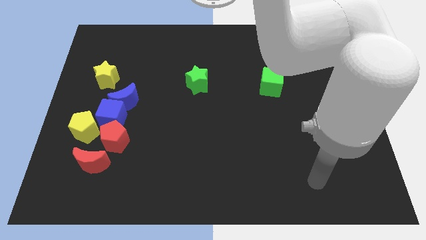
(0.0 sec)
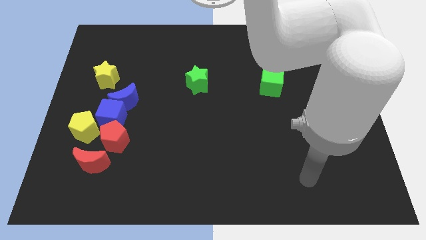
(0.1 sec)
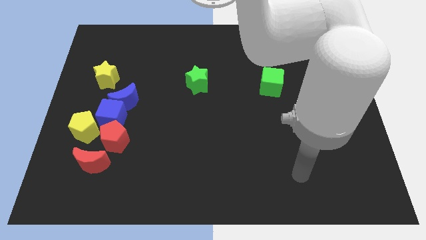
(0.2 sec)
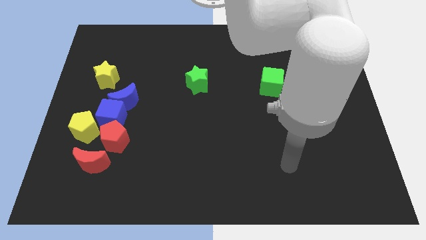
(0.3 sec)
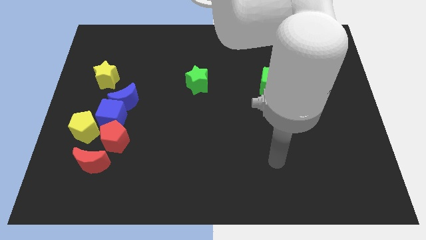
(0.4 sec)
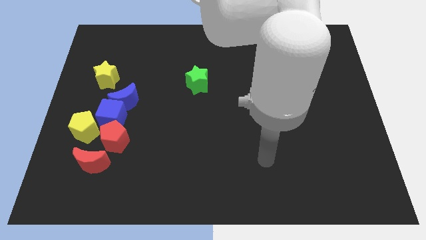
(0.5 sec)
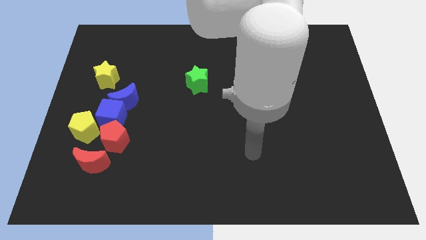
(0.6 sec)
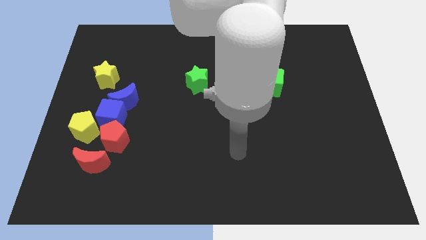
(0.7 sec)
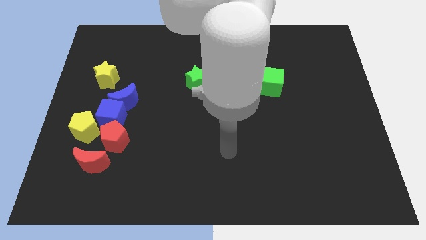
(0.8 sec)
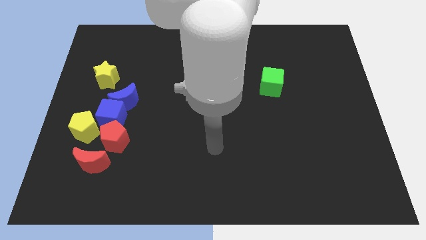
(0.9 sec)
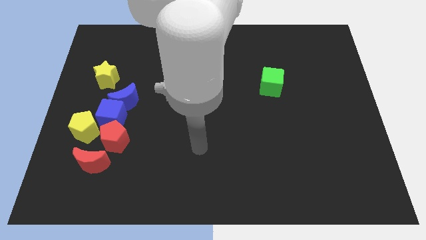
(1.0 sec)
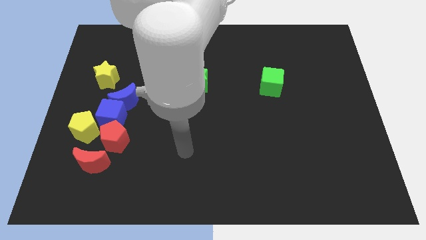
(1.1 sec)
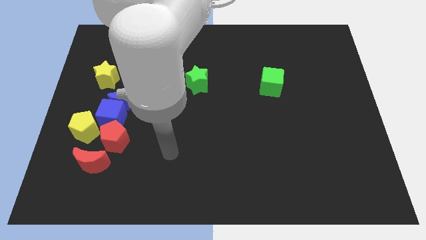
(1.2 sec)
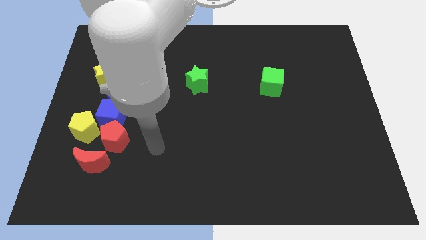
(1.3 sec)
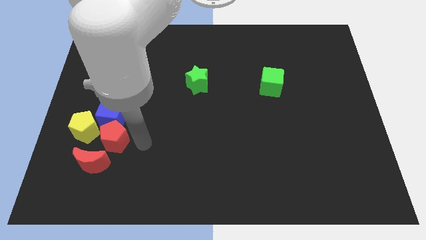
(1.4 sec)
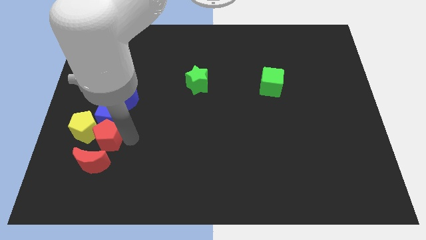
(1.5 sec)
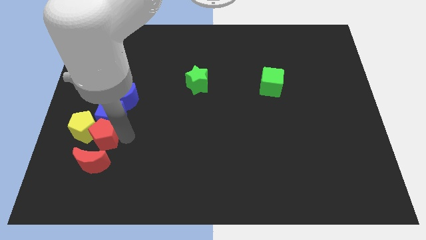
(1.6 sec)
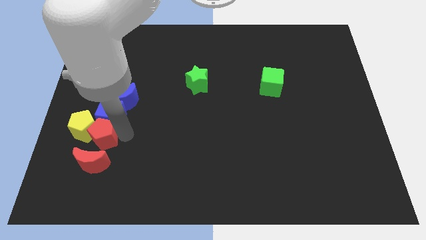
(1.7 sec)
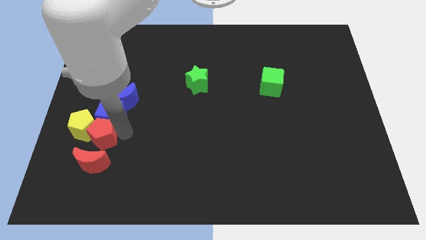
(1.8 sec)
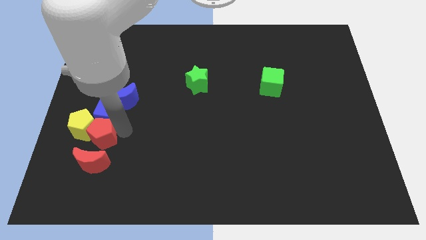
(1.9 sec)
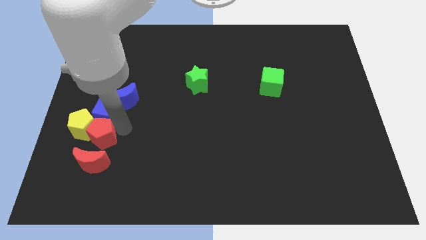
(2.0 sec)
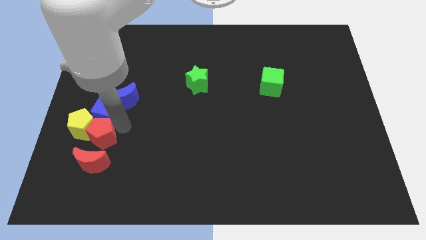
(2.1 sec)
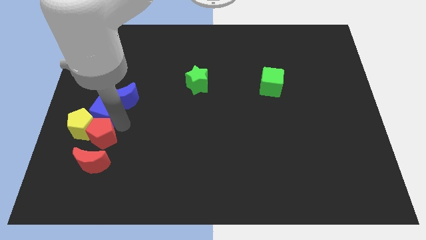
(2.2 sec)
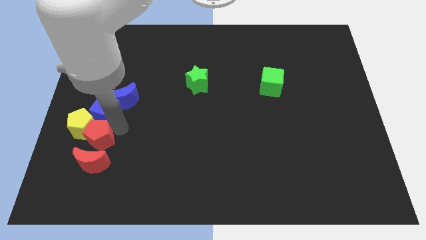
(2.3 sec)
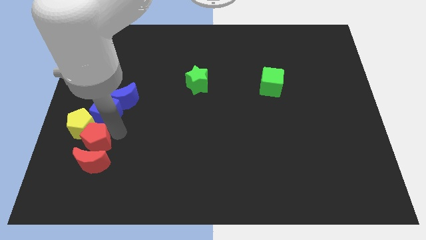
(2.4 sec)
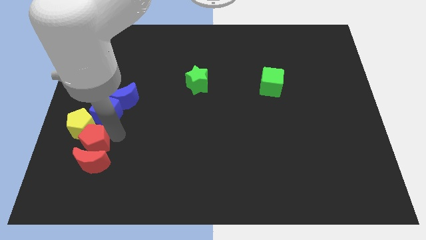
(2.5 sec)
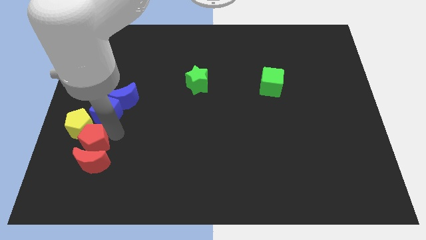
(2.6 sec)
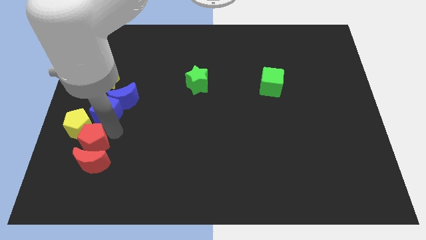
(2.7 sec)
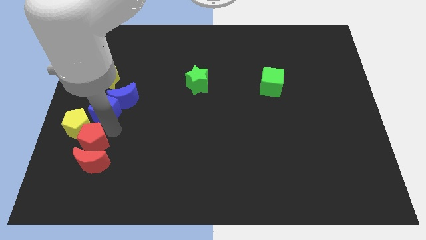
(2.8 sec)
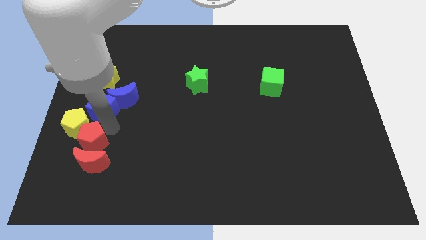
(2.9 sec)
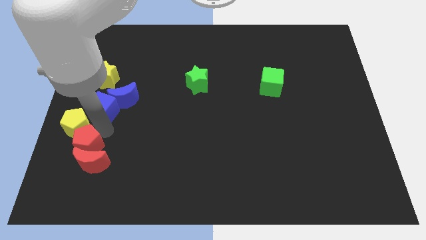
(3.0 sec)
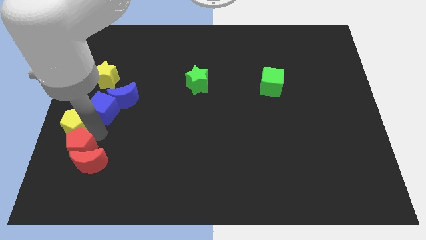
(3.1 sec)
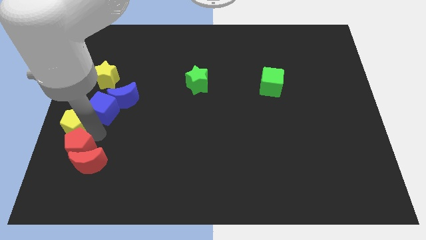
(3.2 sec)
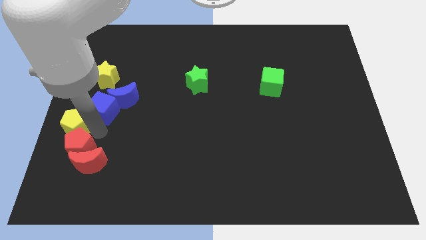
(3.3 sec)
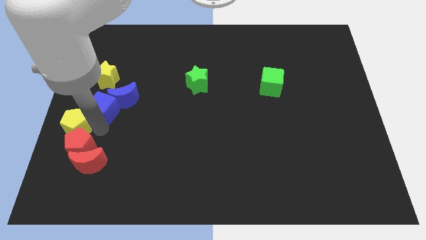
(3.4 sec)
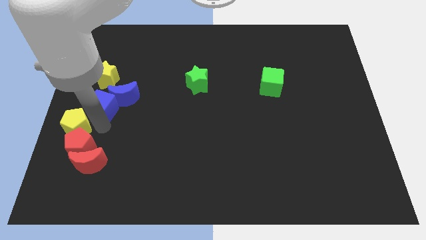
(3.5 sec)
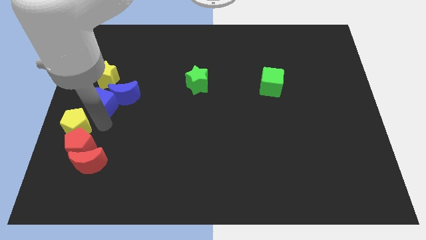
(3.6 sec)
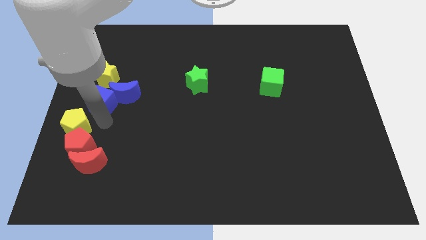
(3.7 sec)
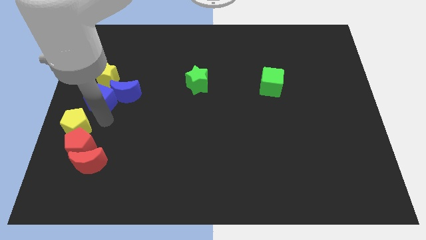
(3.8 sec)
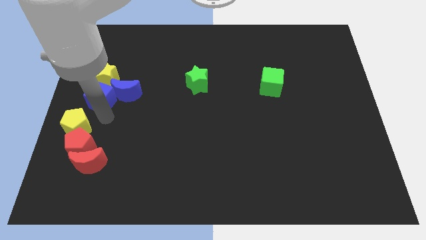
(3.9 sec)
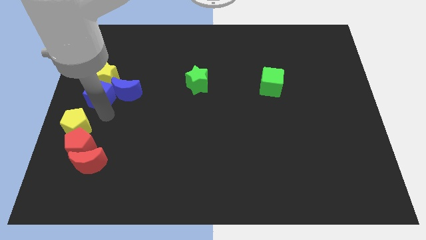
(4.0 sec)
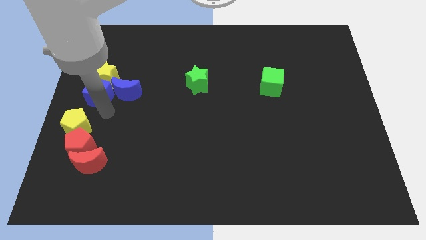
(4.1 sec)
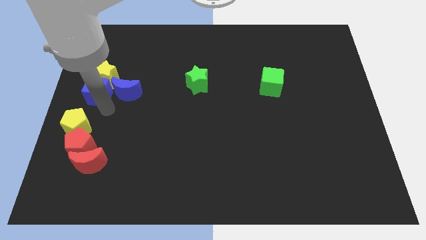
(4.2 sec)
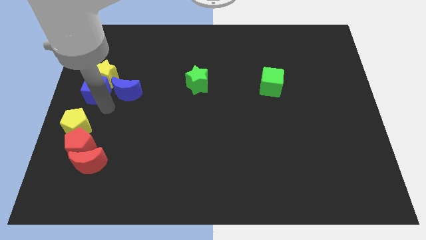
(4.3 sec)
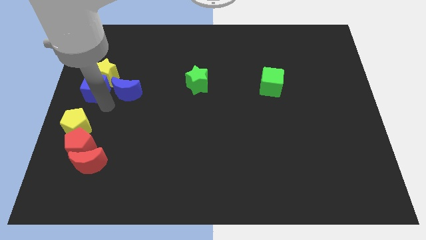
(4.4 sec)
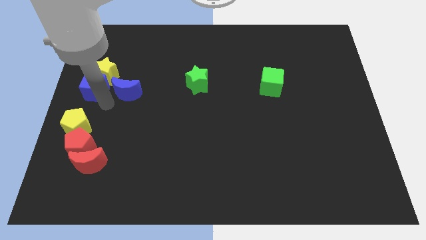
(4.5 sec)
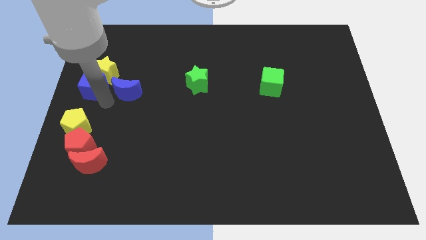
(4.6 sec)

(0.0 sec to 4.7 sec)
move the blue cube away from the blue moon, red pentagon, and yellow pentagon

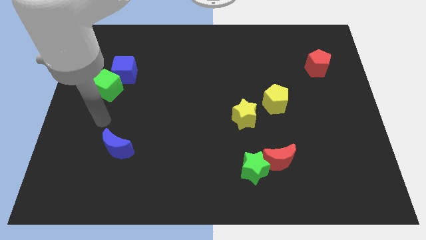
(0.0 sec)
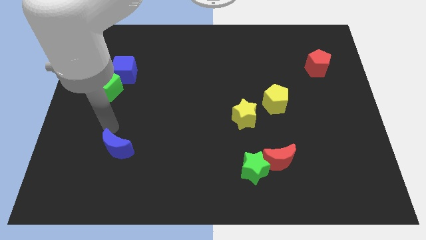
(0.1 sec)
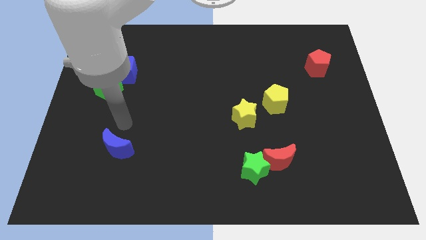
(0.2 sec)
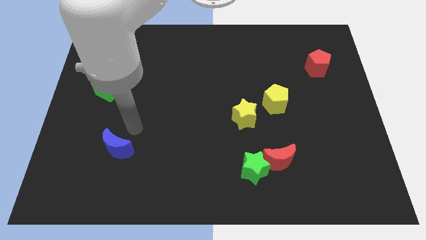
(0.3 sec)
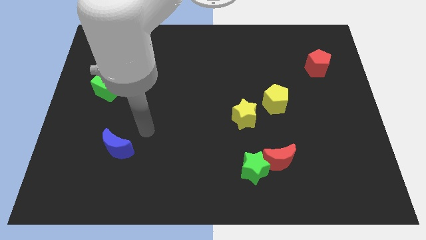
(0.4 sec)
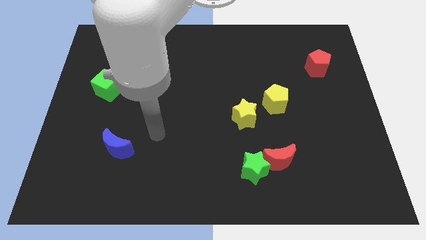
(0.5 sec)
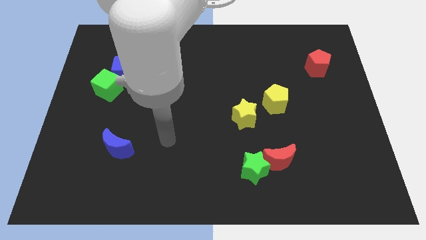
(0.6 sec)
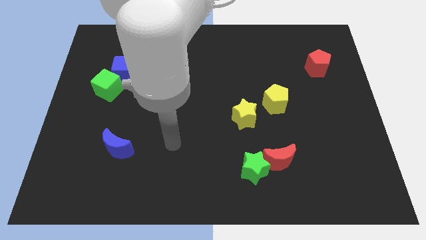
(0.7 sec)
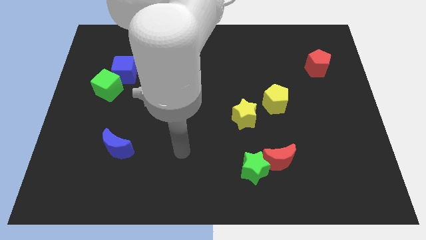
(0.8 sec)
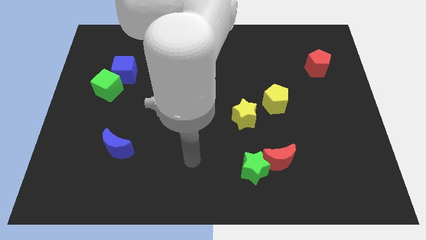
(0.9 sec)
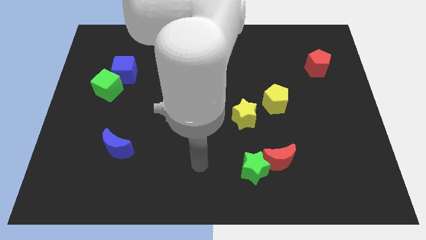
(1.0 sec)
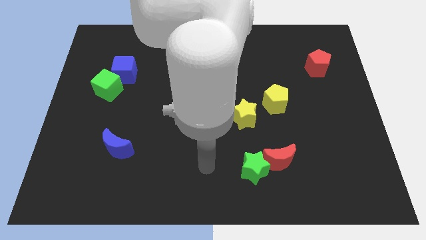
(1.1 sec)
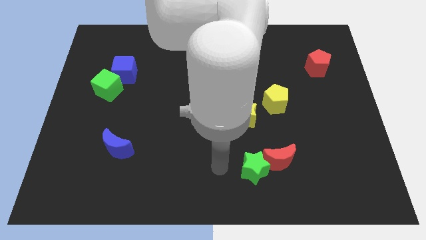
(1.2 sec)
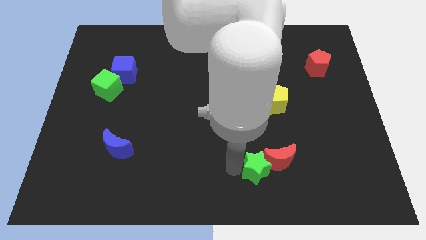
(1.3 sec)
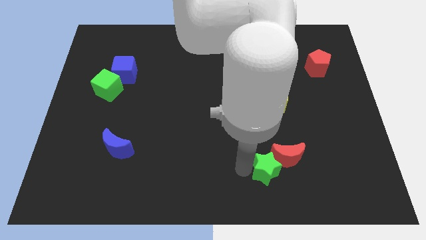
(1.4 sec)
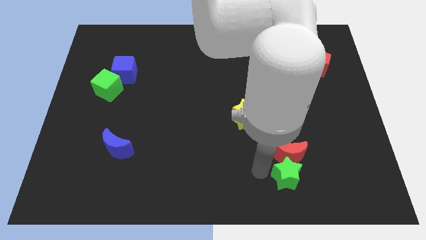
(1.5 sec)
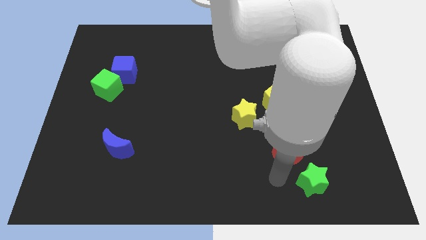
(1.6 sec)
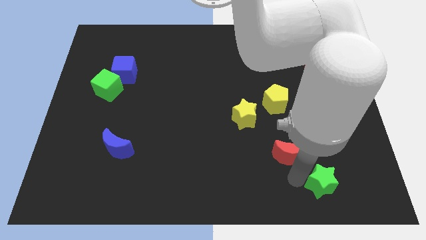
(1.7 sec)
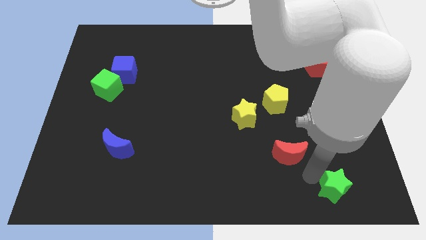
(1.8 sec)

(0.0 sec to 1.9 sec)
move the red moon away from the green star

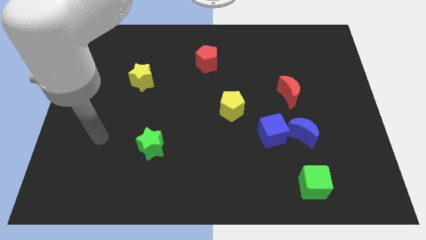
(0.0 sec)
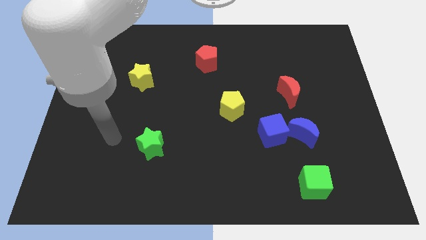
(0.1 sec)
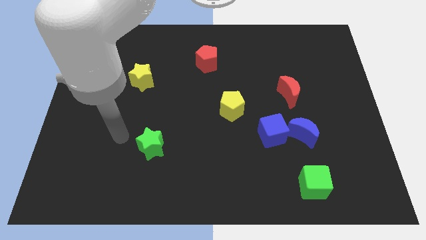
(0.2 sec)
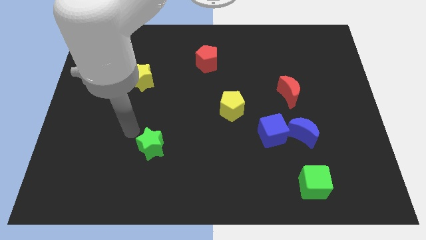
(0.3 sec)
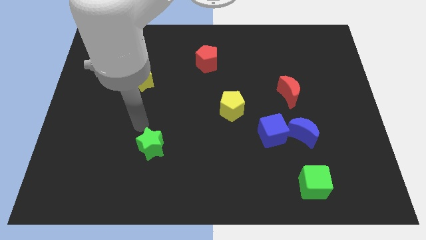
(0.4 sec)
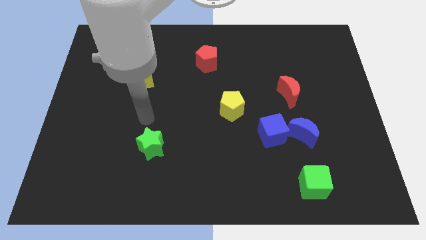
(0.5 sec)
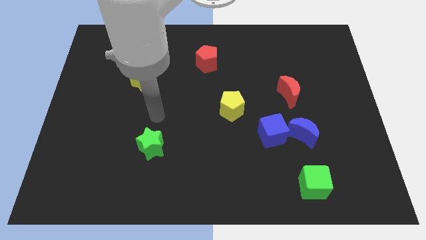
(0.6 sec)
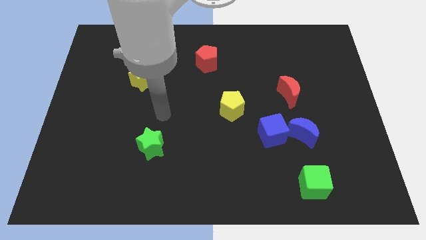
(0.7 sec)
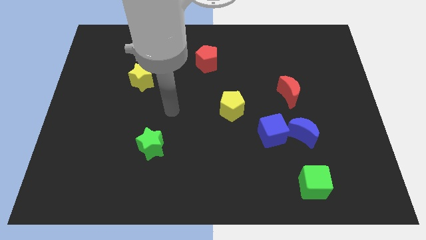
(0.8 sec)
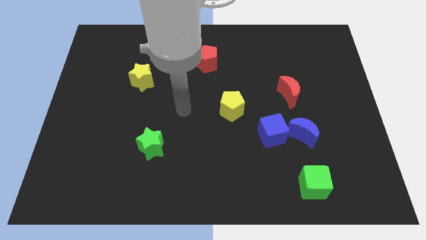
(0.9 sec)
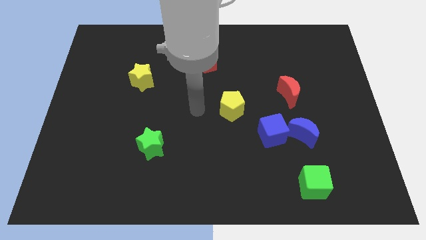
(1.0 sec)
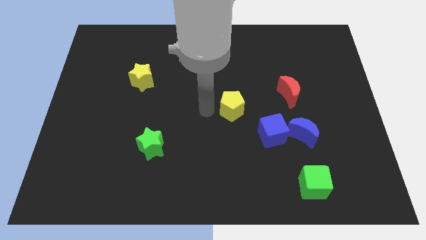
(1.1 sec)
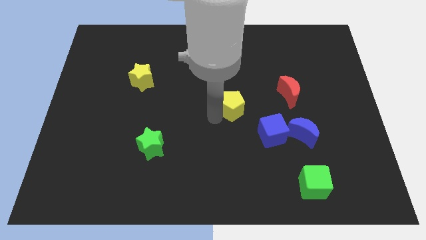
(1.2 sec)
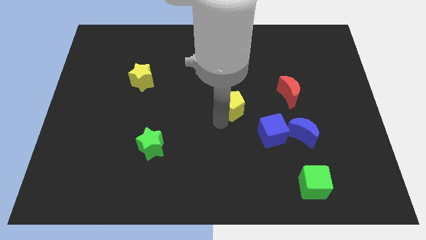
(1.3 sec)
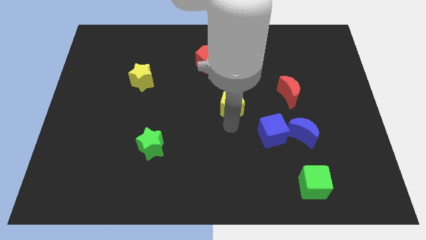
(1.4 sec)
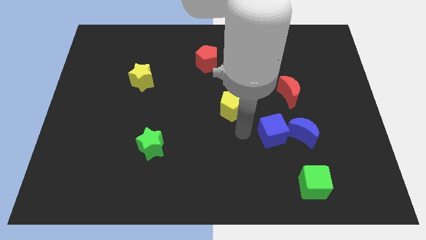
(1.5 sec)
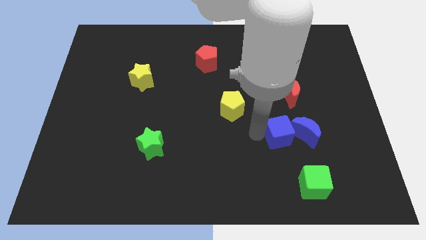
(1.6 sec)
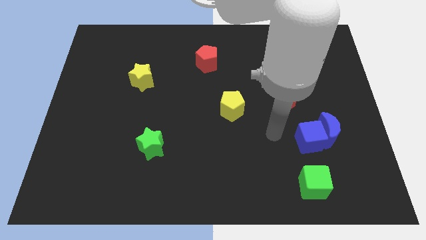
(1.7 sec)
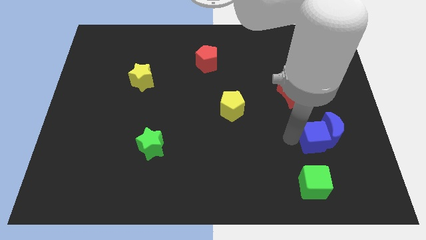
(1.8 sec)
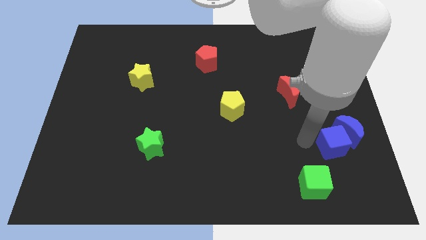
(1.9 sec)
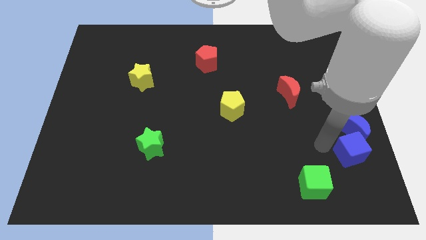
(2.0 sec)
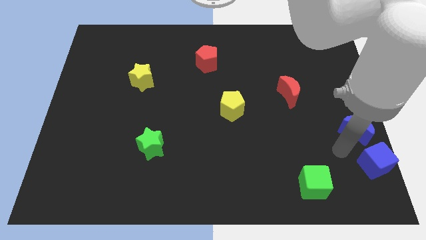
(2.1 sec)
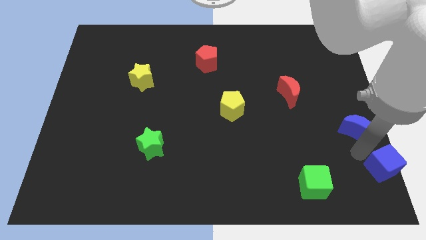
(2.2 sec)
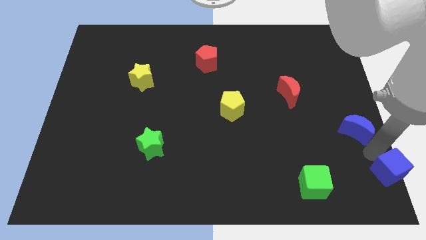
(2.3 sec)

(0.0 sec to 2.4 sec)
separate the blue moon from the blue cube

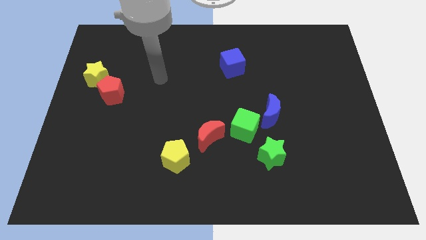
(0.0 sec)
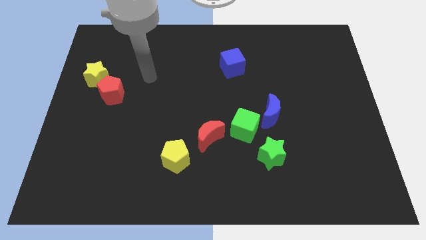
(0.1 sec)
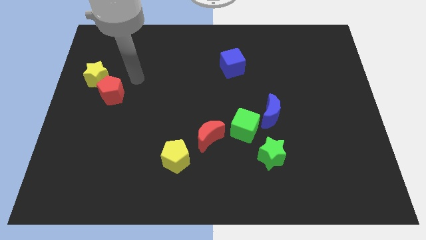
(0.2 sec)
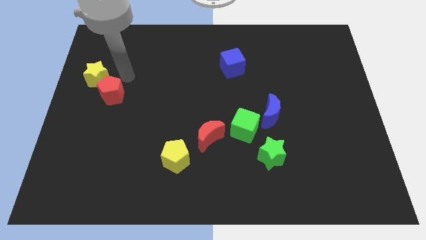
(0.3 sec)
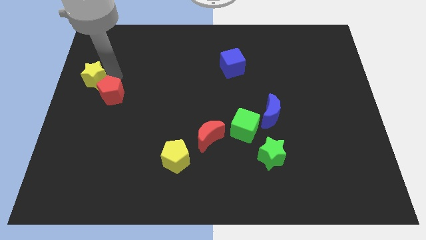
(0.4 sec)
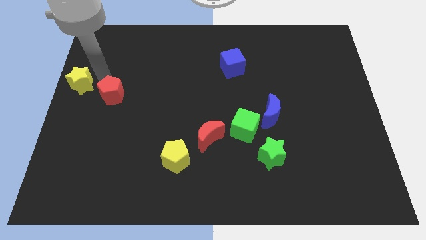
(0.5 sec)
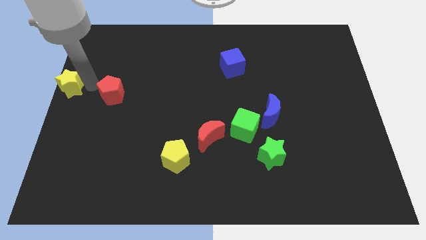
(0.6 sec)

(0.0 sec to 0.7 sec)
pull the red pentagon apart from the yellow star
